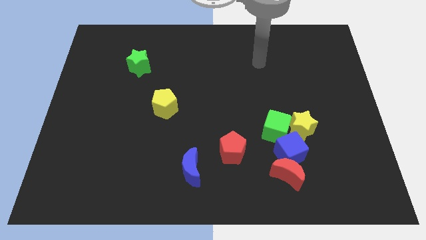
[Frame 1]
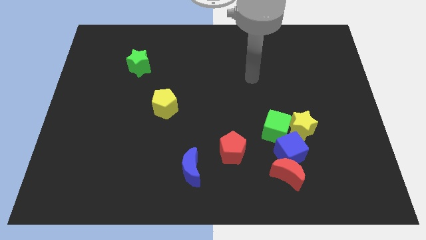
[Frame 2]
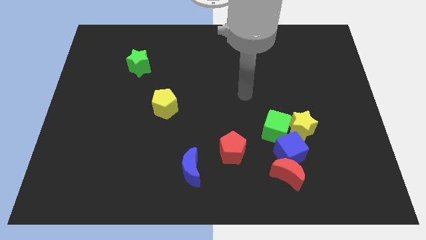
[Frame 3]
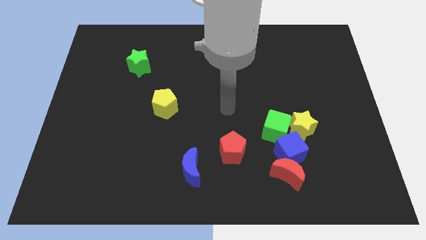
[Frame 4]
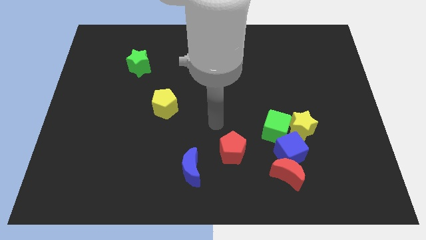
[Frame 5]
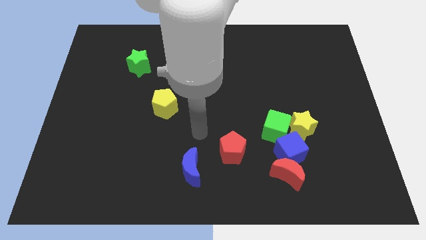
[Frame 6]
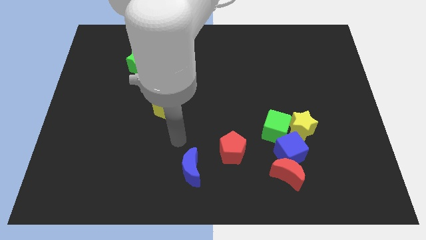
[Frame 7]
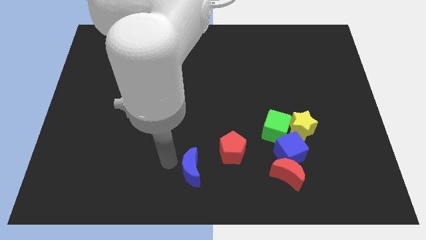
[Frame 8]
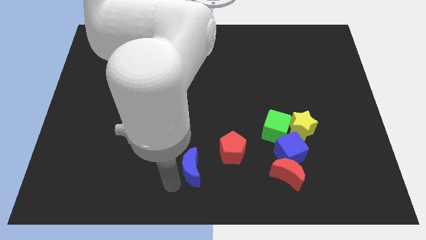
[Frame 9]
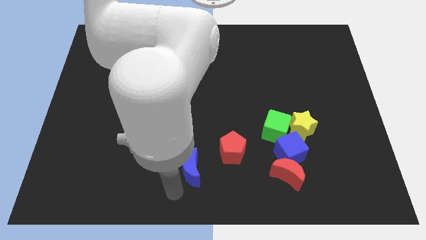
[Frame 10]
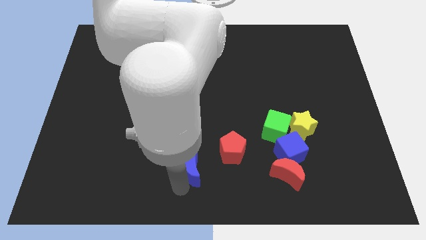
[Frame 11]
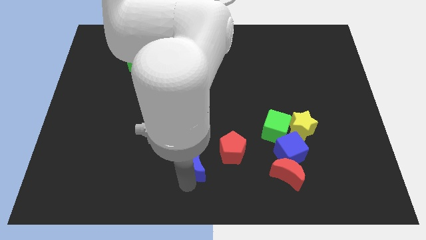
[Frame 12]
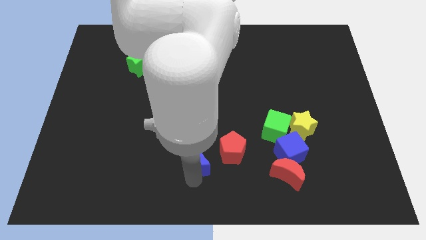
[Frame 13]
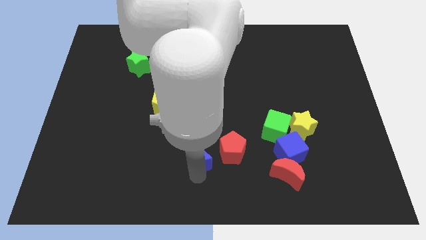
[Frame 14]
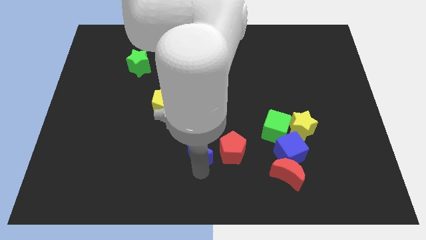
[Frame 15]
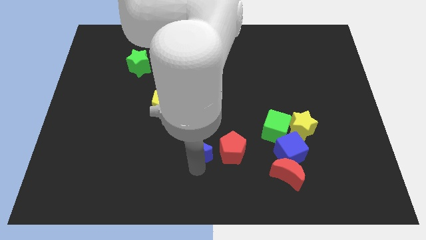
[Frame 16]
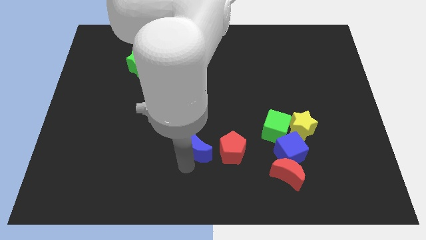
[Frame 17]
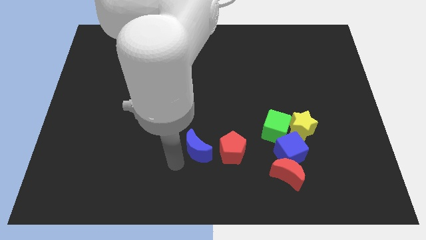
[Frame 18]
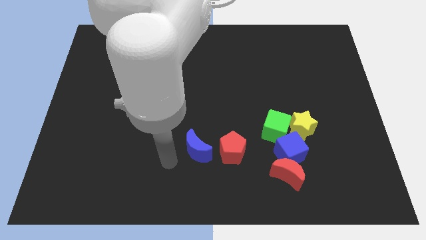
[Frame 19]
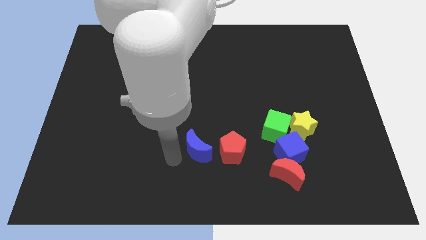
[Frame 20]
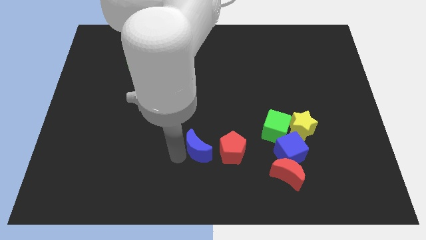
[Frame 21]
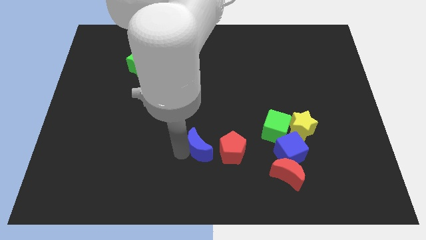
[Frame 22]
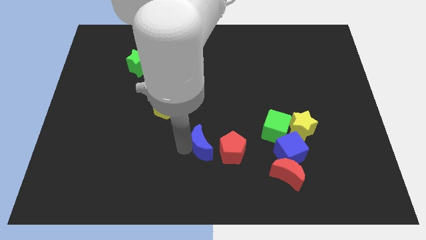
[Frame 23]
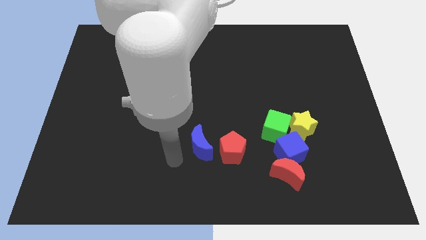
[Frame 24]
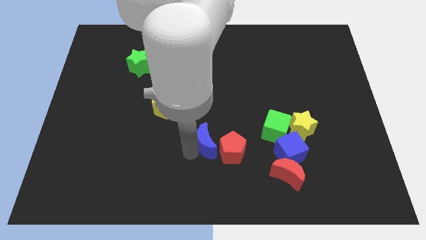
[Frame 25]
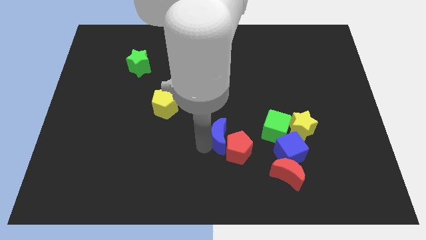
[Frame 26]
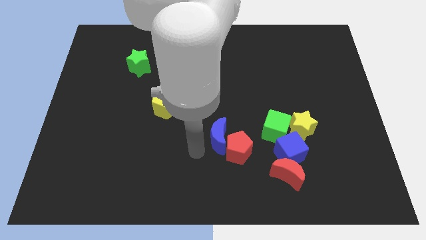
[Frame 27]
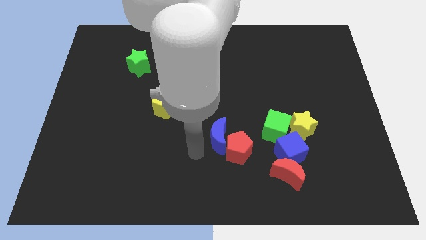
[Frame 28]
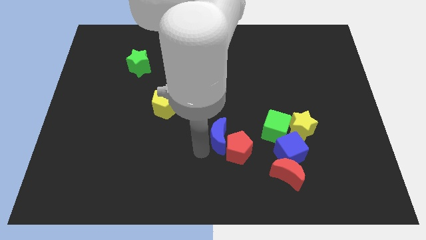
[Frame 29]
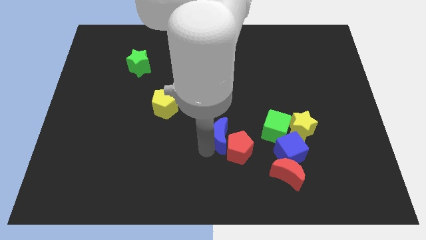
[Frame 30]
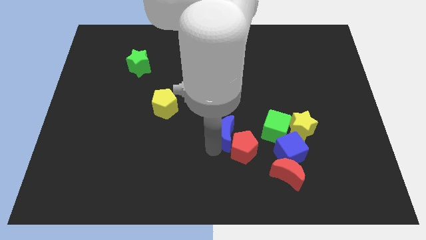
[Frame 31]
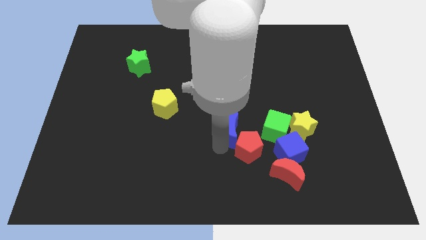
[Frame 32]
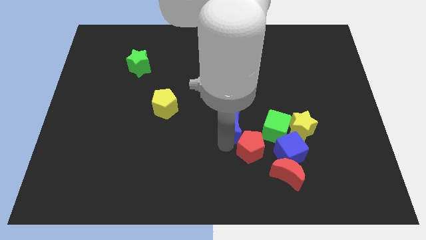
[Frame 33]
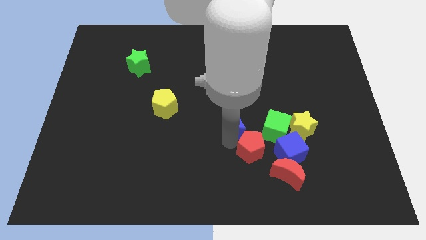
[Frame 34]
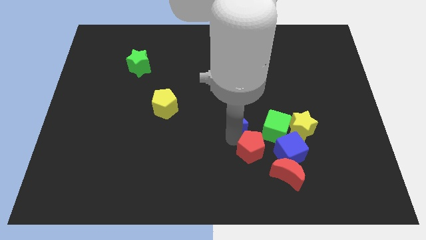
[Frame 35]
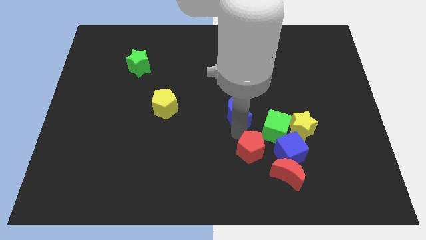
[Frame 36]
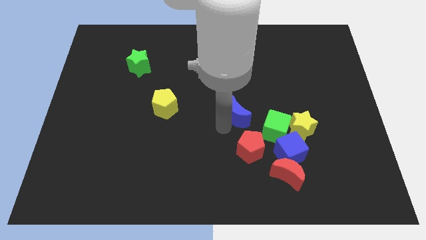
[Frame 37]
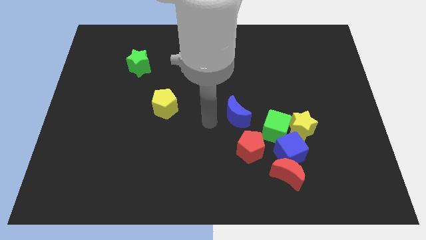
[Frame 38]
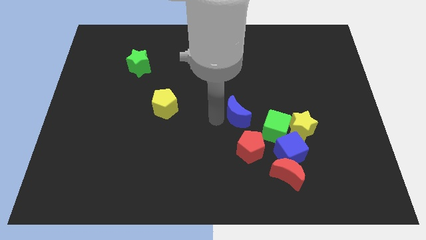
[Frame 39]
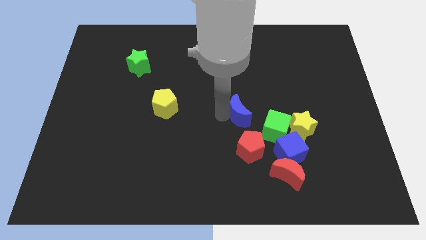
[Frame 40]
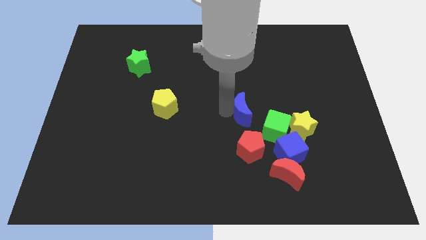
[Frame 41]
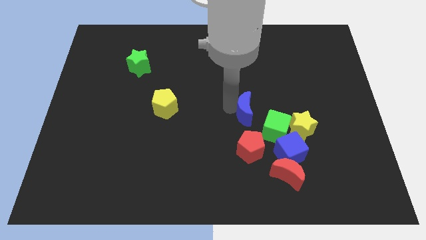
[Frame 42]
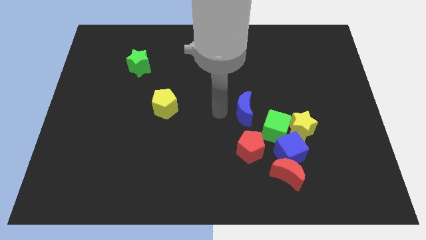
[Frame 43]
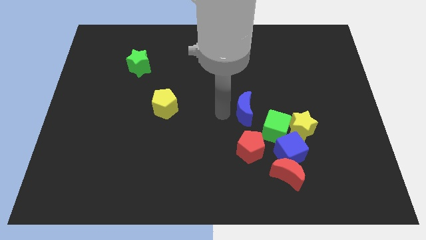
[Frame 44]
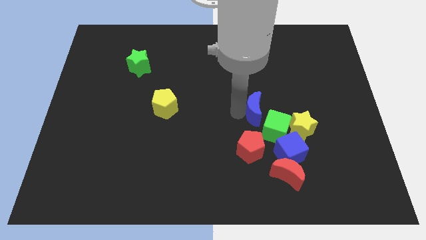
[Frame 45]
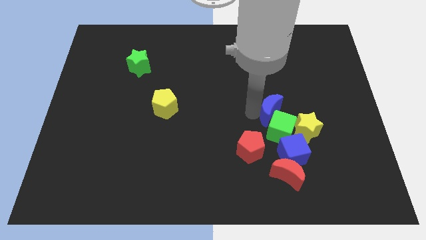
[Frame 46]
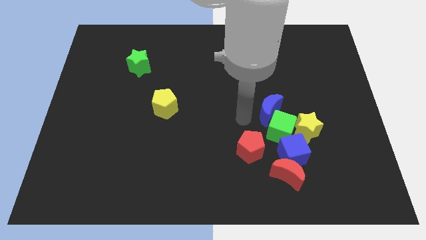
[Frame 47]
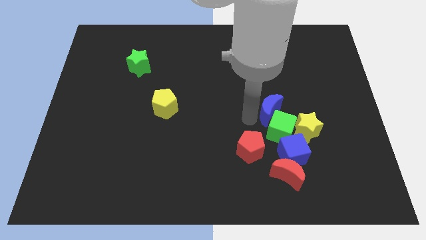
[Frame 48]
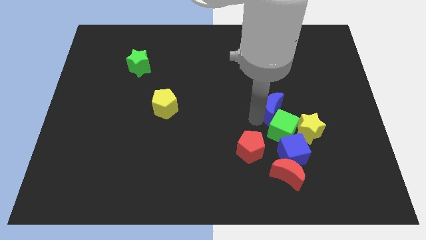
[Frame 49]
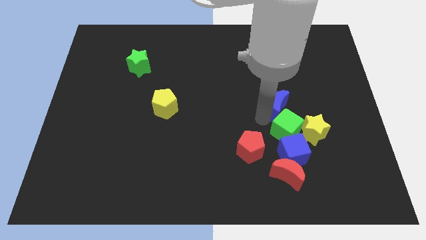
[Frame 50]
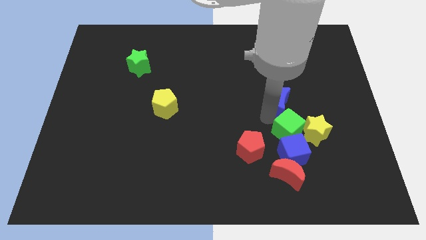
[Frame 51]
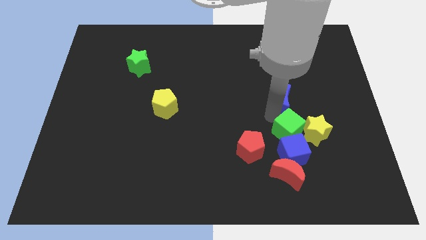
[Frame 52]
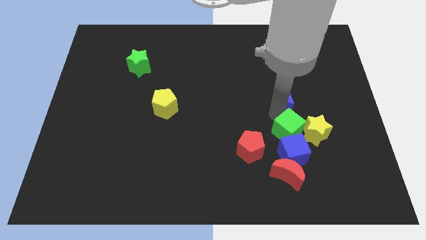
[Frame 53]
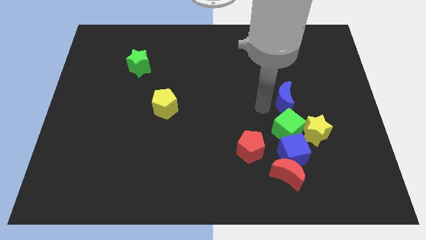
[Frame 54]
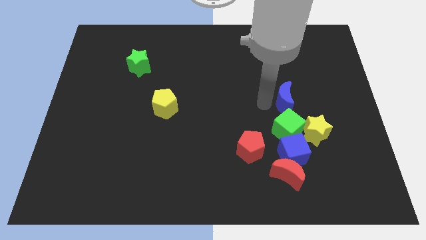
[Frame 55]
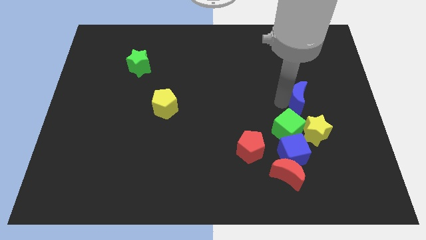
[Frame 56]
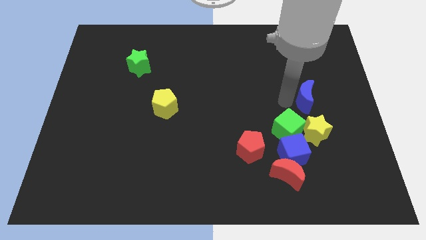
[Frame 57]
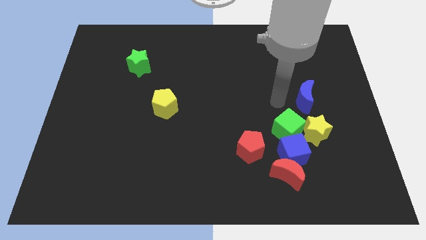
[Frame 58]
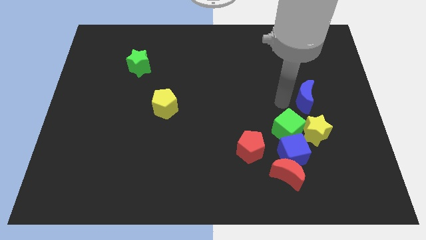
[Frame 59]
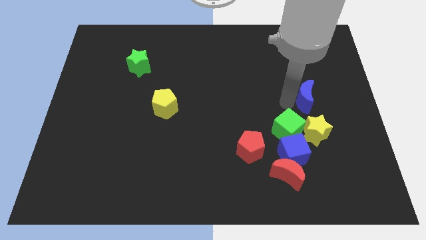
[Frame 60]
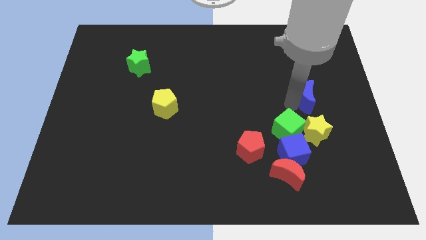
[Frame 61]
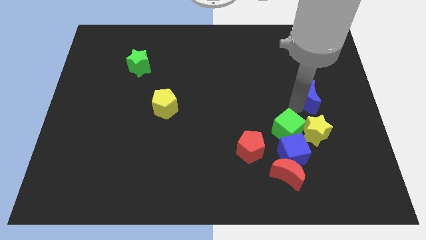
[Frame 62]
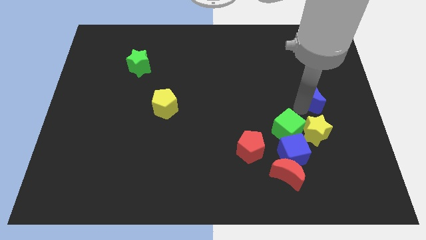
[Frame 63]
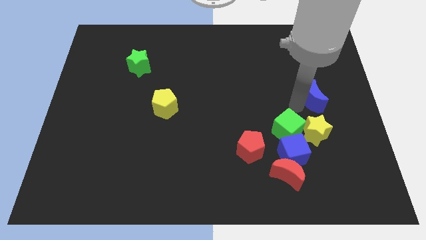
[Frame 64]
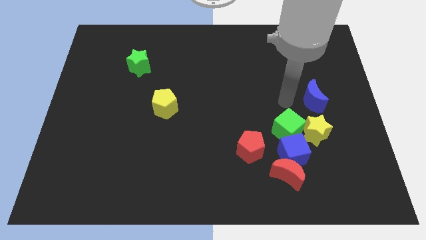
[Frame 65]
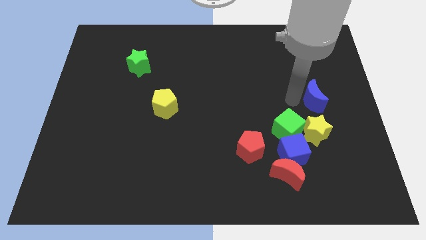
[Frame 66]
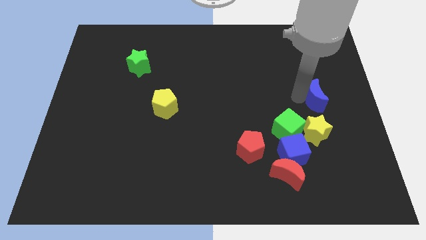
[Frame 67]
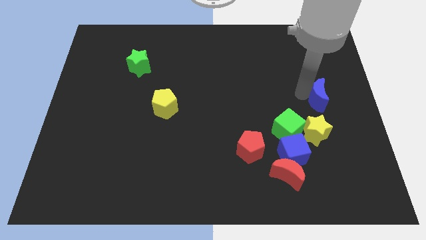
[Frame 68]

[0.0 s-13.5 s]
put the blue moon to the right side of the board
